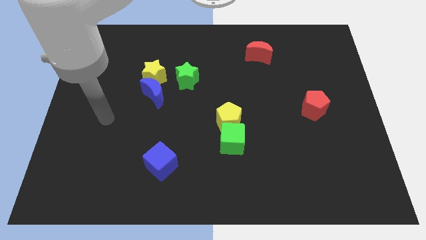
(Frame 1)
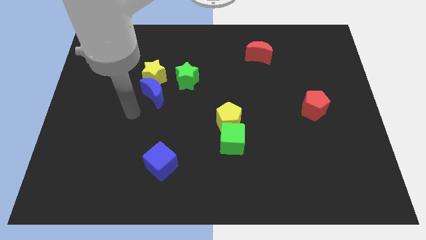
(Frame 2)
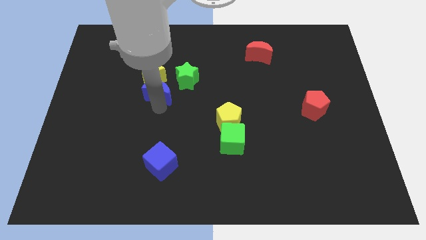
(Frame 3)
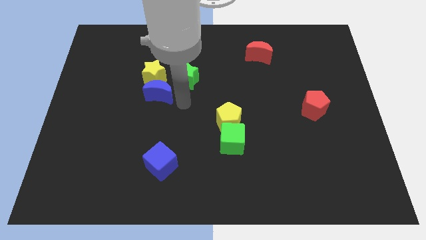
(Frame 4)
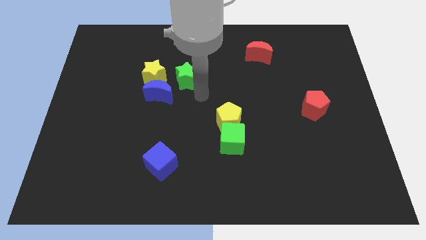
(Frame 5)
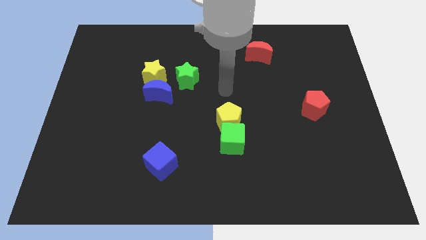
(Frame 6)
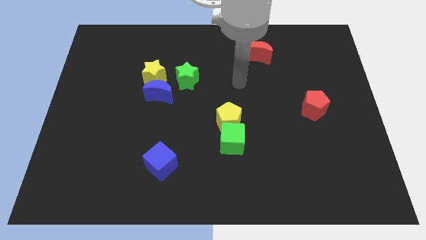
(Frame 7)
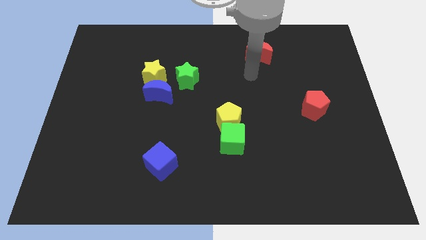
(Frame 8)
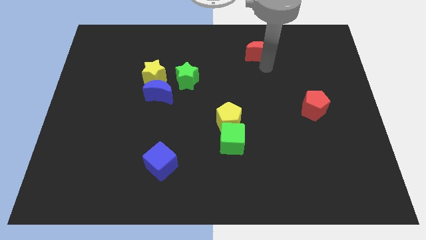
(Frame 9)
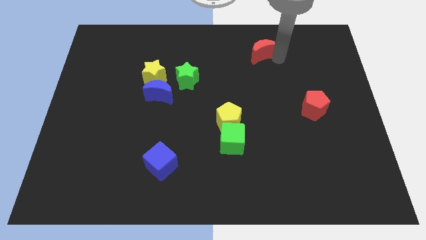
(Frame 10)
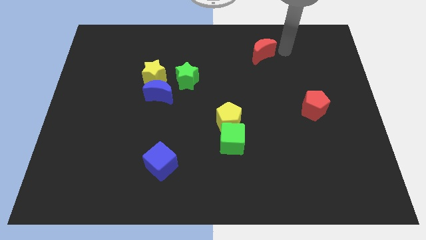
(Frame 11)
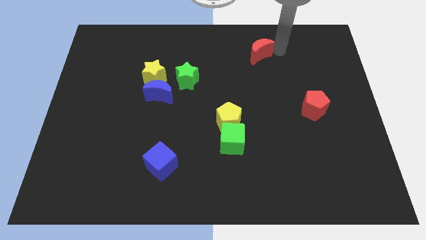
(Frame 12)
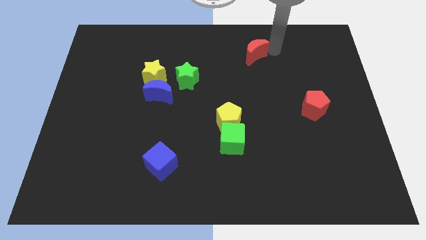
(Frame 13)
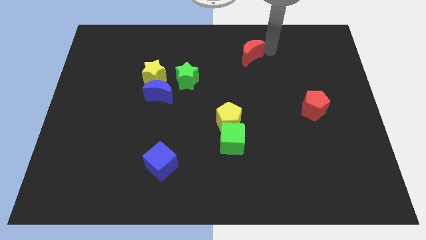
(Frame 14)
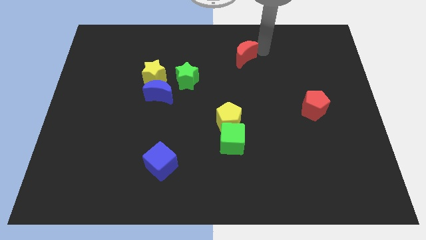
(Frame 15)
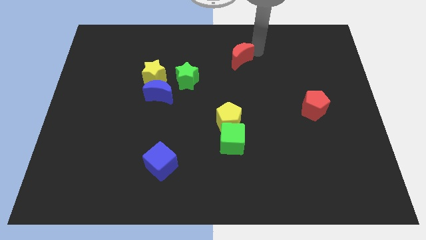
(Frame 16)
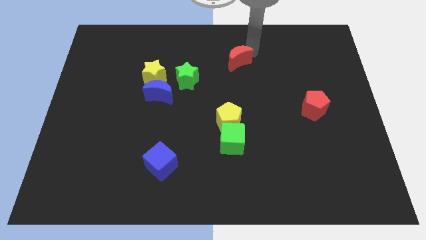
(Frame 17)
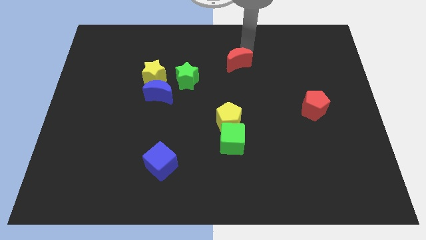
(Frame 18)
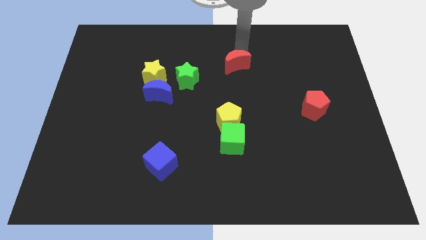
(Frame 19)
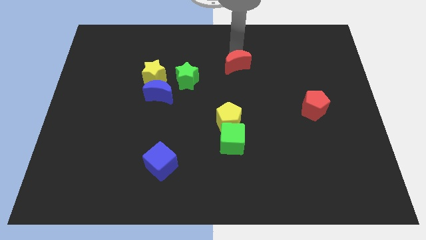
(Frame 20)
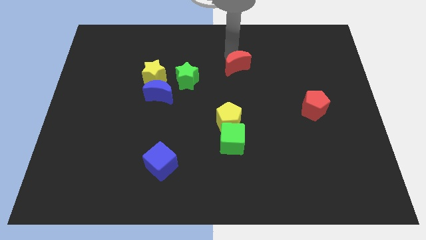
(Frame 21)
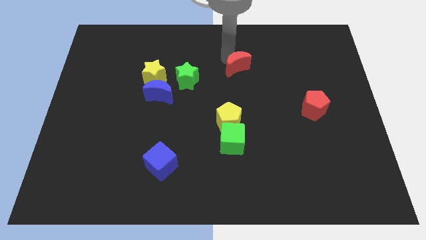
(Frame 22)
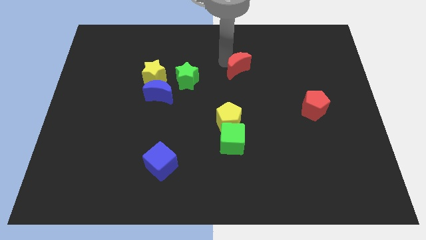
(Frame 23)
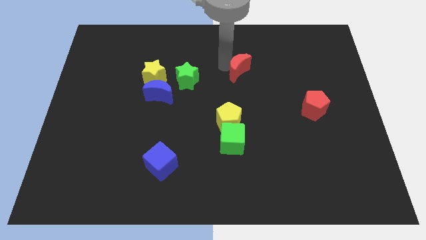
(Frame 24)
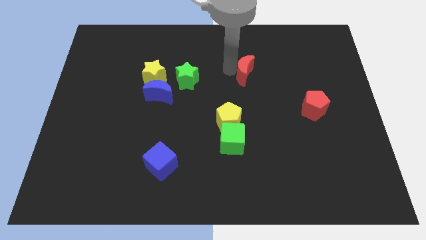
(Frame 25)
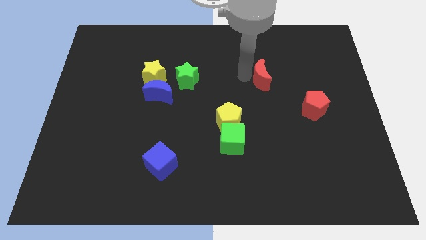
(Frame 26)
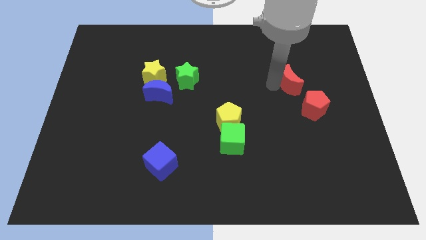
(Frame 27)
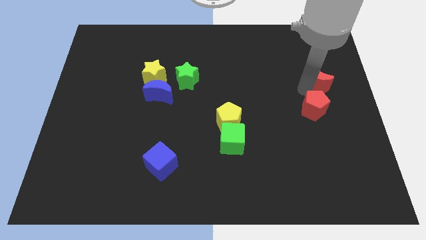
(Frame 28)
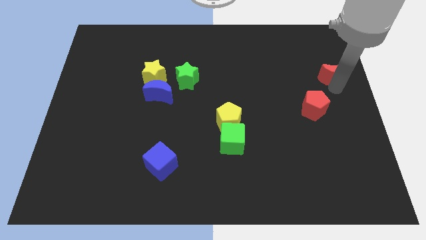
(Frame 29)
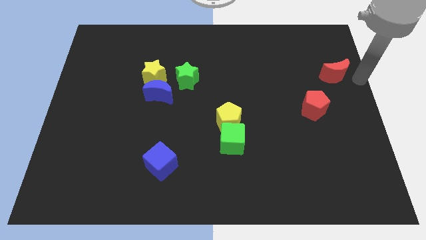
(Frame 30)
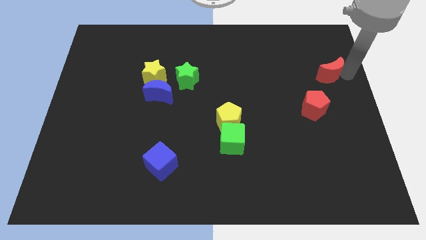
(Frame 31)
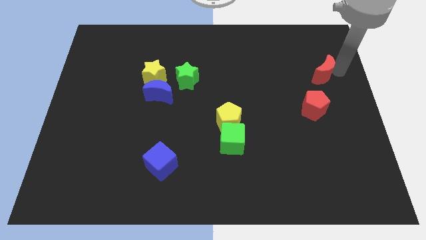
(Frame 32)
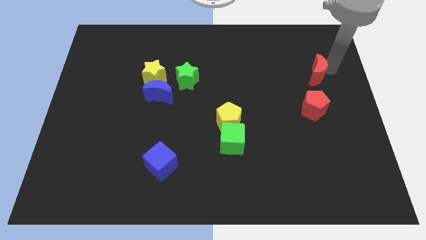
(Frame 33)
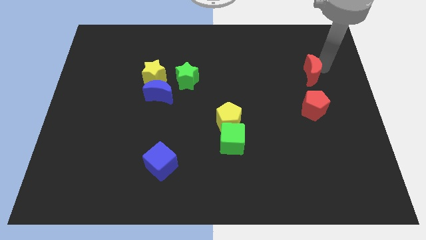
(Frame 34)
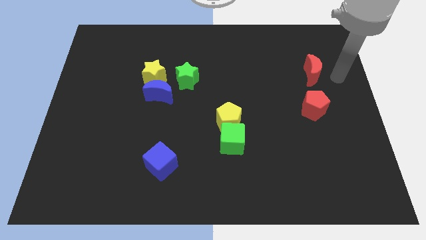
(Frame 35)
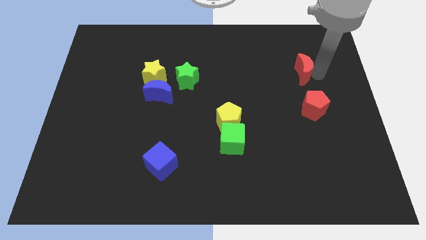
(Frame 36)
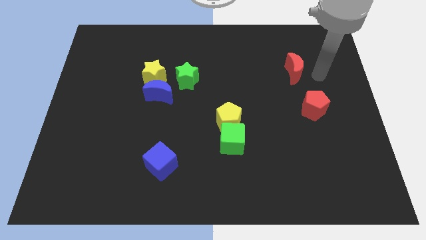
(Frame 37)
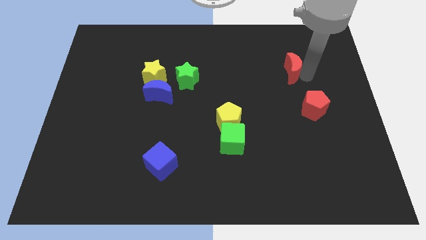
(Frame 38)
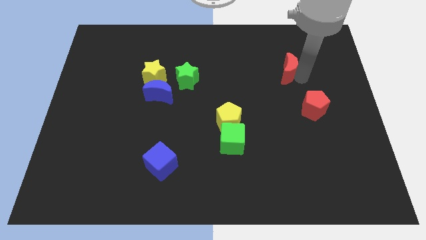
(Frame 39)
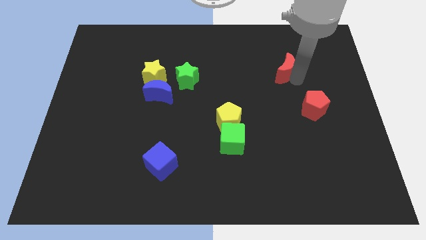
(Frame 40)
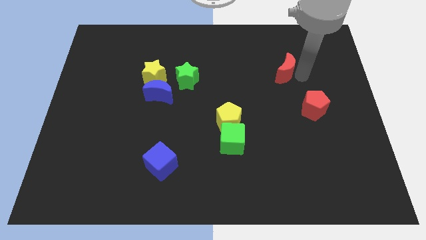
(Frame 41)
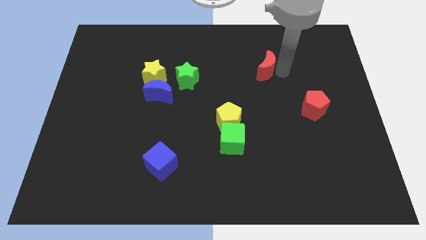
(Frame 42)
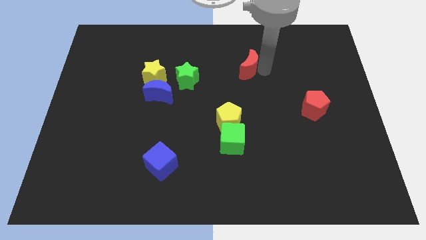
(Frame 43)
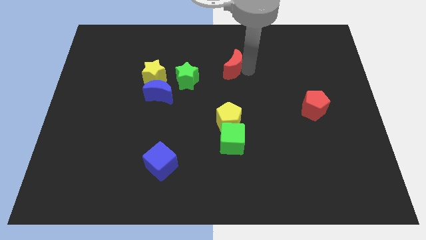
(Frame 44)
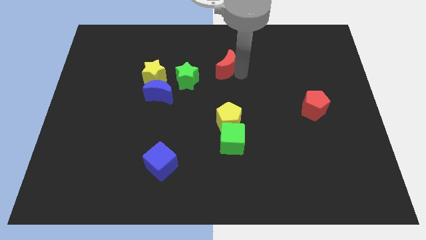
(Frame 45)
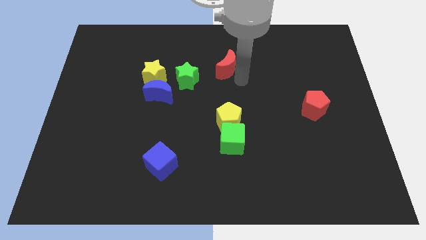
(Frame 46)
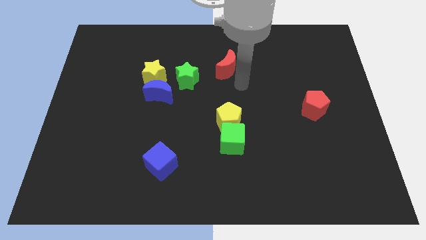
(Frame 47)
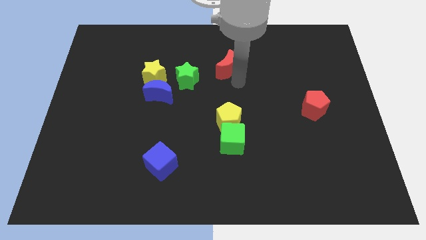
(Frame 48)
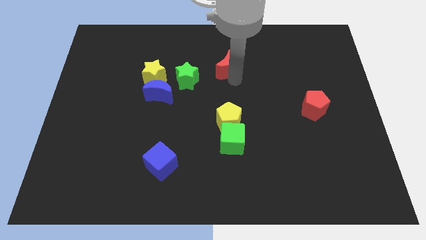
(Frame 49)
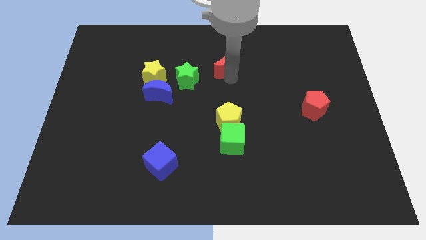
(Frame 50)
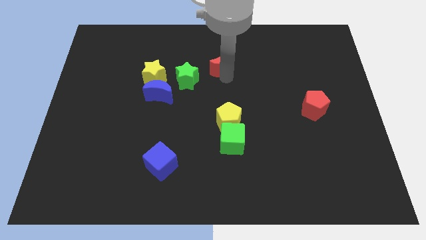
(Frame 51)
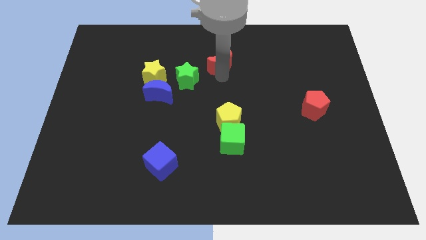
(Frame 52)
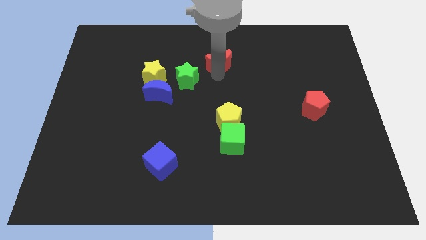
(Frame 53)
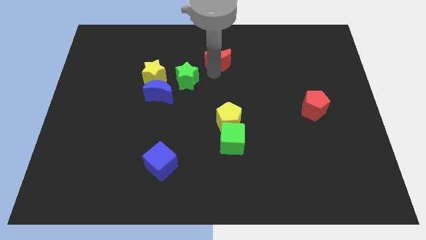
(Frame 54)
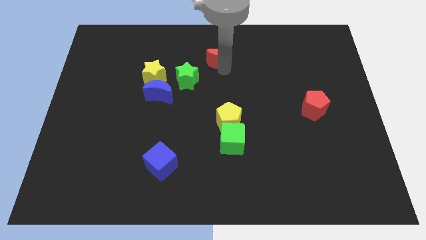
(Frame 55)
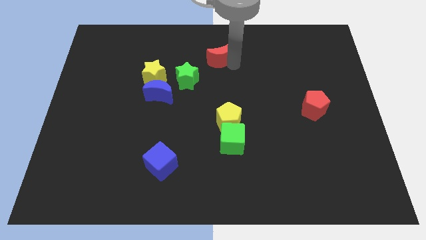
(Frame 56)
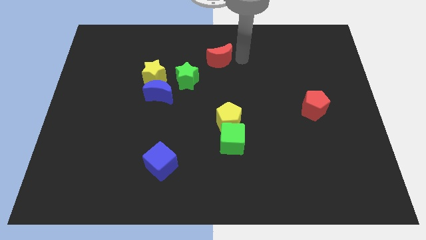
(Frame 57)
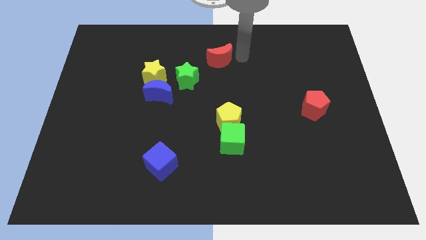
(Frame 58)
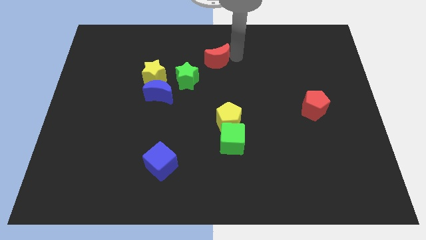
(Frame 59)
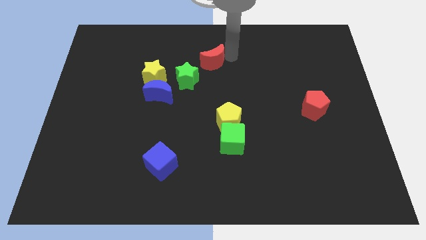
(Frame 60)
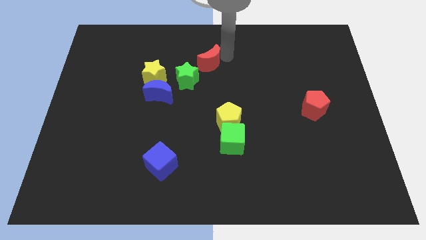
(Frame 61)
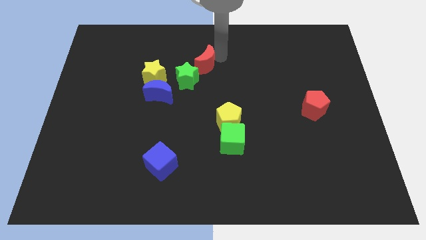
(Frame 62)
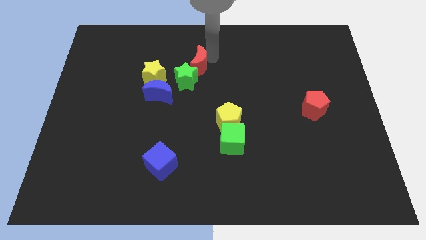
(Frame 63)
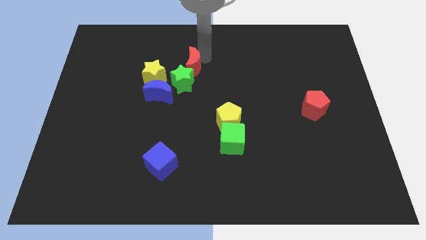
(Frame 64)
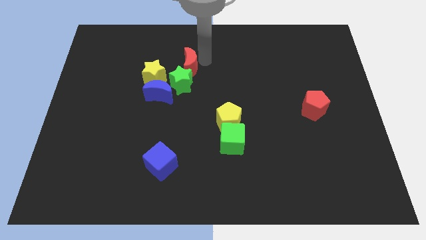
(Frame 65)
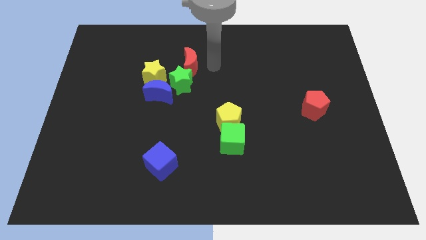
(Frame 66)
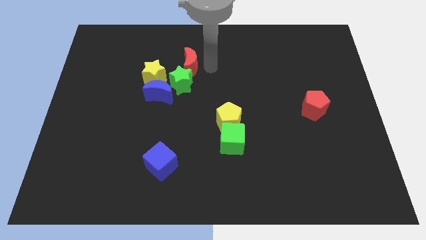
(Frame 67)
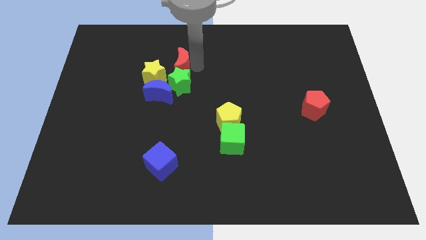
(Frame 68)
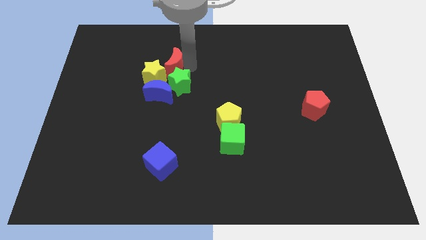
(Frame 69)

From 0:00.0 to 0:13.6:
move the red moon to the top side of the blue moon

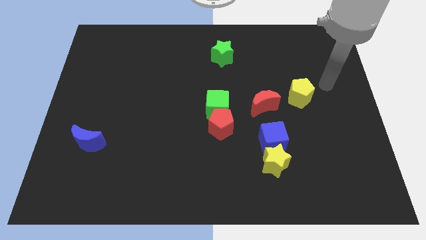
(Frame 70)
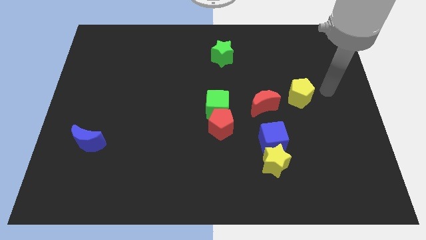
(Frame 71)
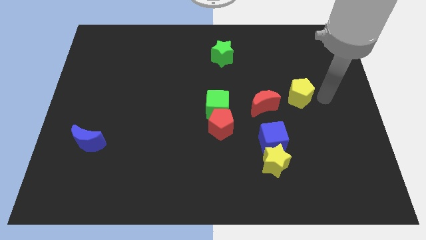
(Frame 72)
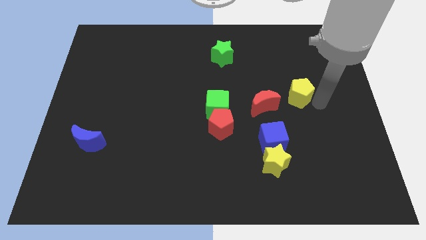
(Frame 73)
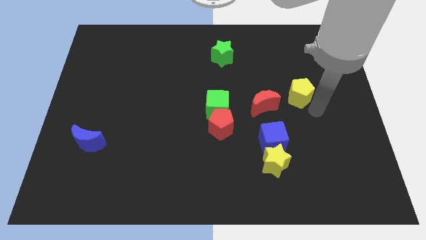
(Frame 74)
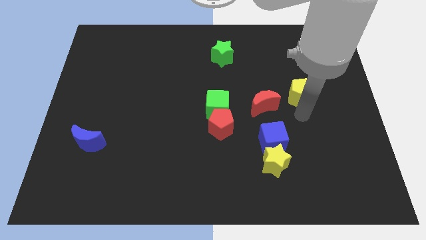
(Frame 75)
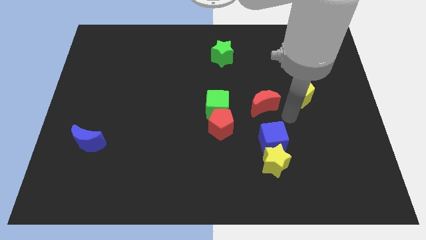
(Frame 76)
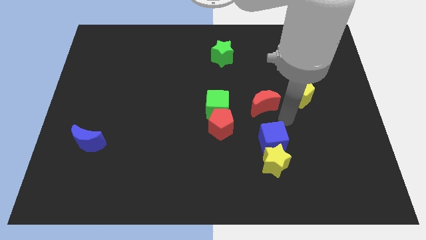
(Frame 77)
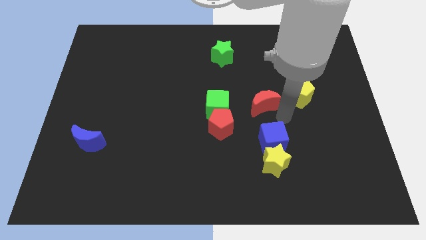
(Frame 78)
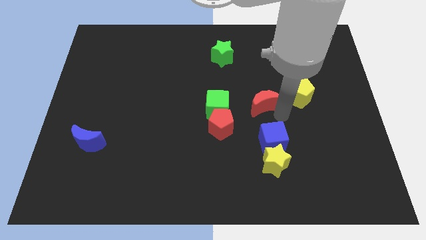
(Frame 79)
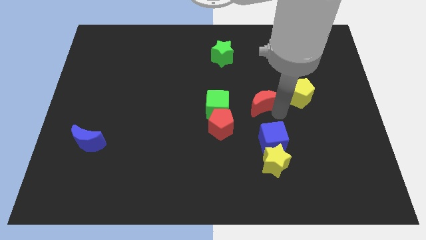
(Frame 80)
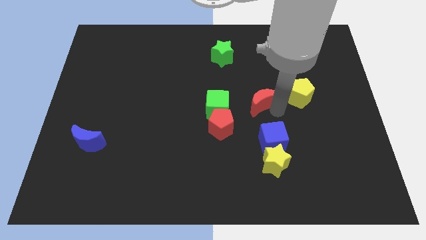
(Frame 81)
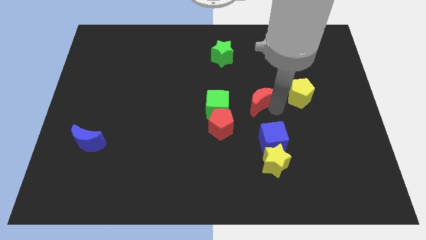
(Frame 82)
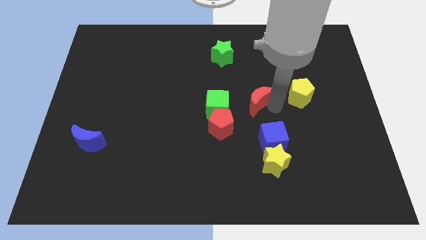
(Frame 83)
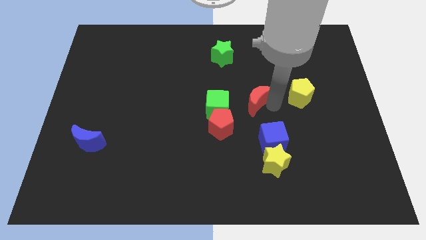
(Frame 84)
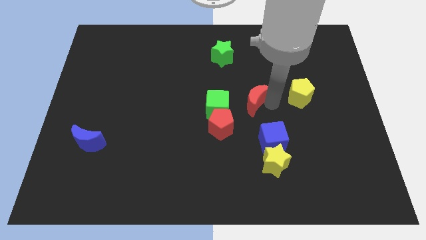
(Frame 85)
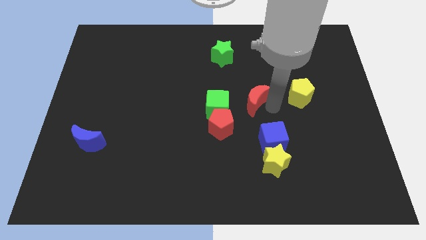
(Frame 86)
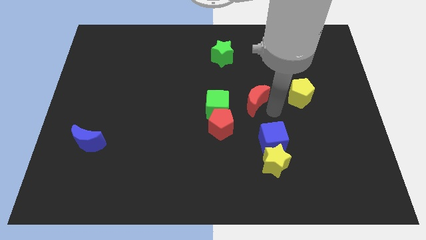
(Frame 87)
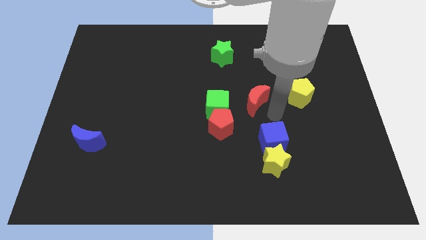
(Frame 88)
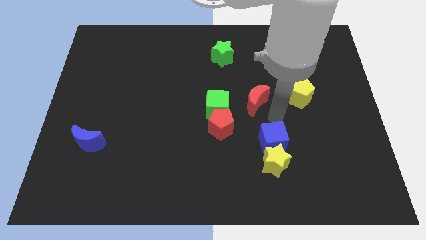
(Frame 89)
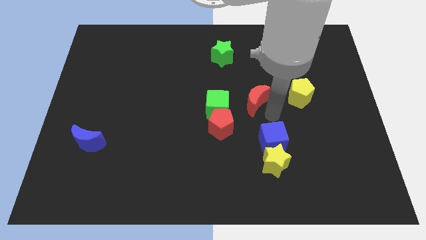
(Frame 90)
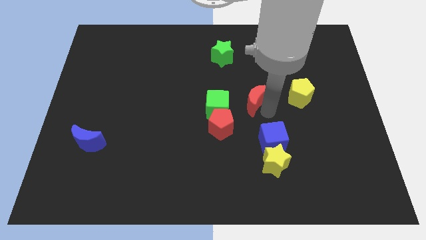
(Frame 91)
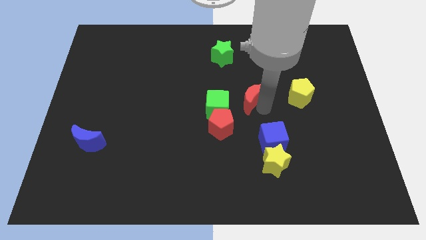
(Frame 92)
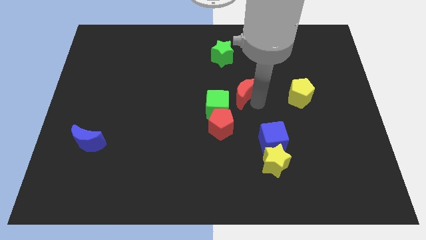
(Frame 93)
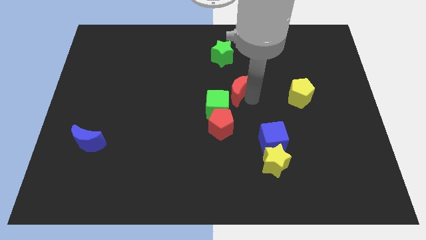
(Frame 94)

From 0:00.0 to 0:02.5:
push the red moon below the green star
